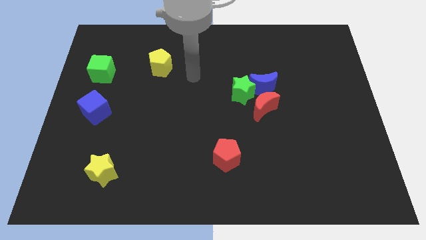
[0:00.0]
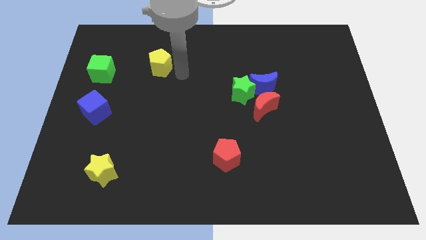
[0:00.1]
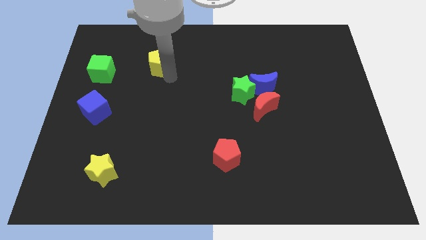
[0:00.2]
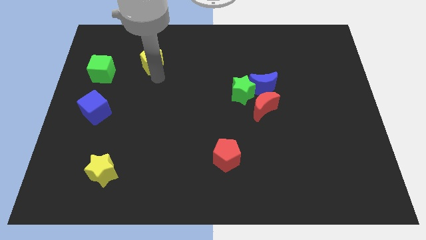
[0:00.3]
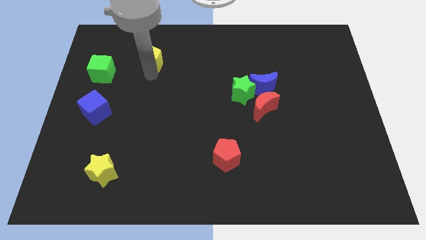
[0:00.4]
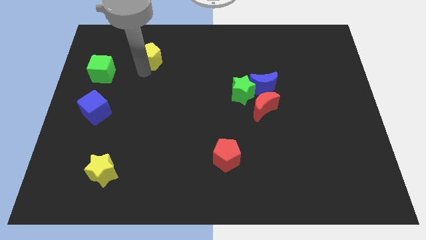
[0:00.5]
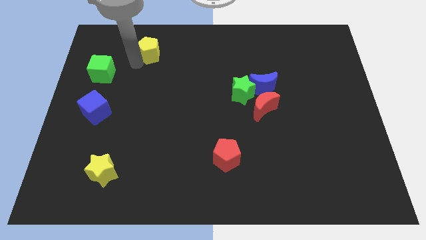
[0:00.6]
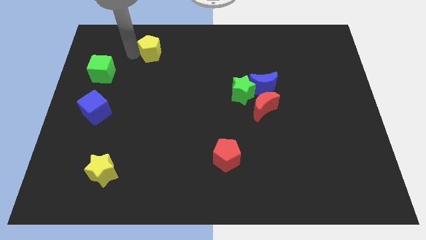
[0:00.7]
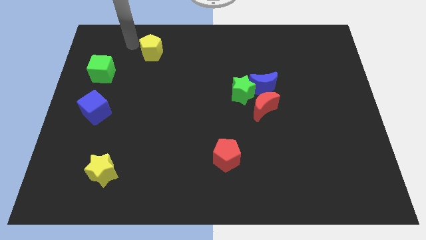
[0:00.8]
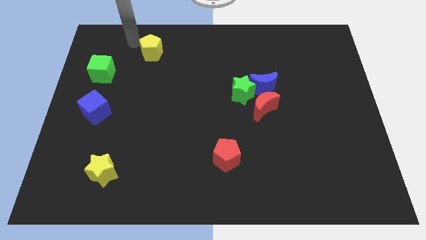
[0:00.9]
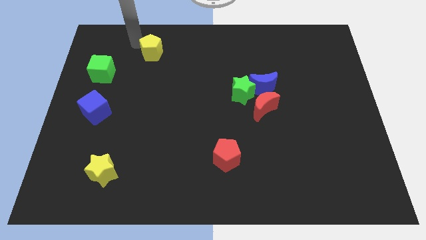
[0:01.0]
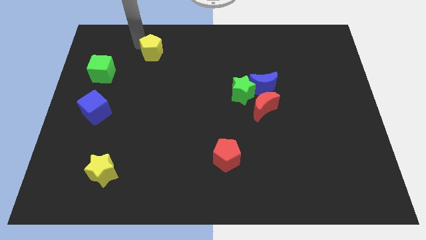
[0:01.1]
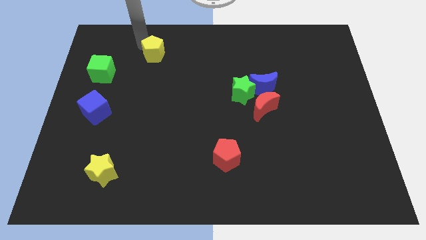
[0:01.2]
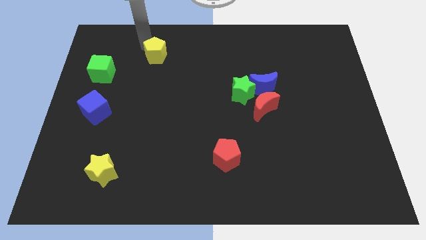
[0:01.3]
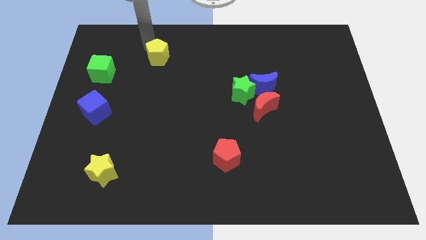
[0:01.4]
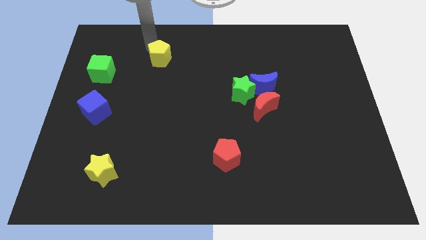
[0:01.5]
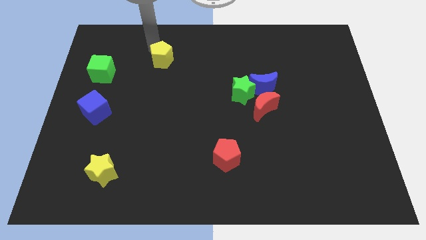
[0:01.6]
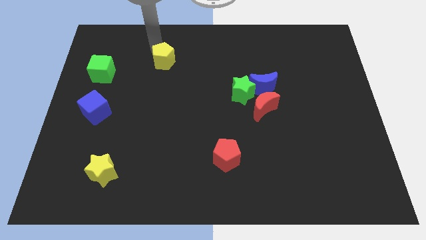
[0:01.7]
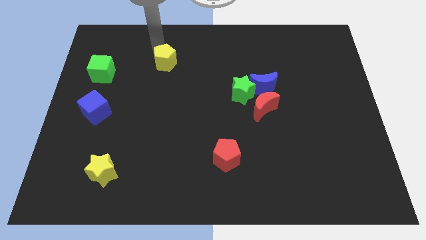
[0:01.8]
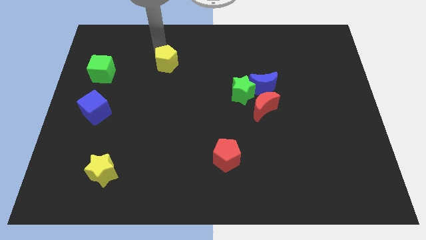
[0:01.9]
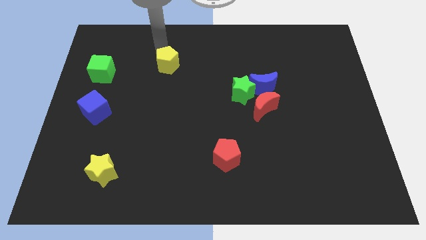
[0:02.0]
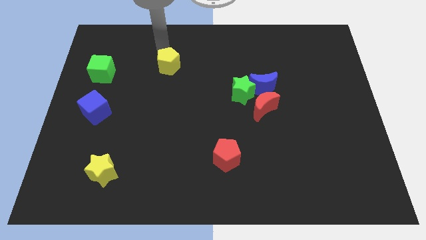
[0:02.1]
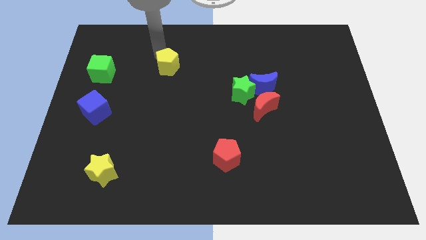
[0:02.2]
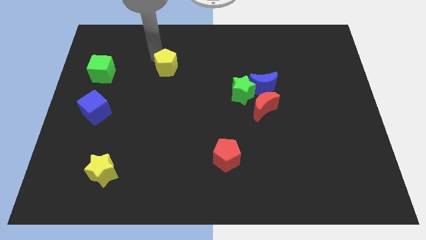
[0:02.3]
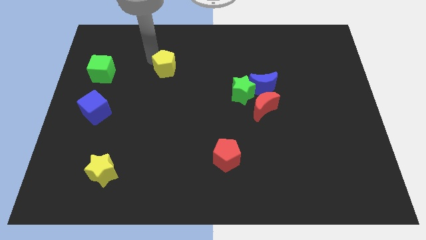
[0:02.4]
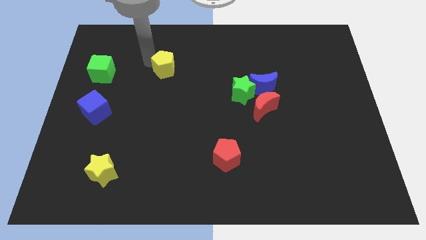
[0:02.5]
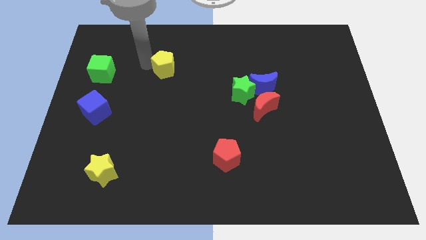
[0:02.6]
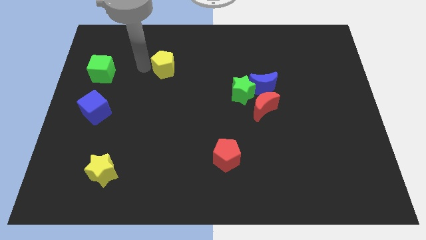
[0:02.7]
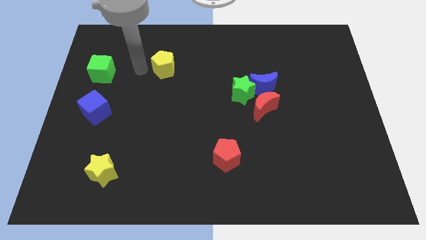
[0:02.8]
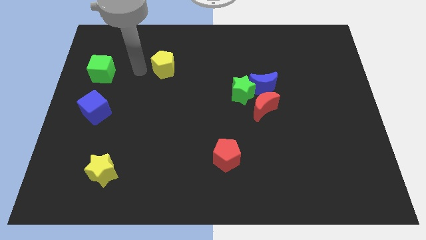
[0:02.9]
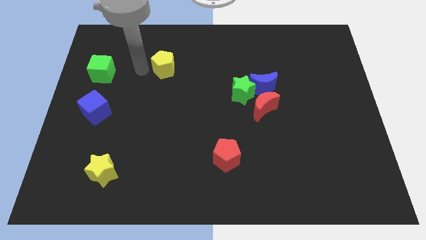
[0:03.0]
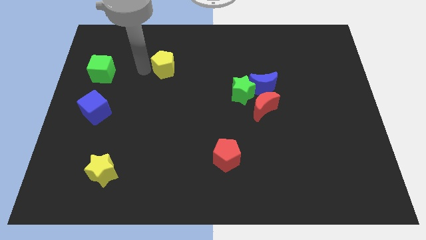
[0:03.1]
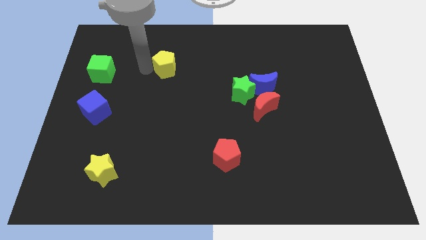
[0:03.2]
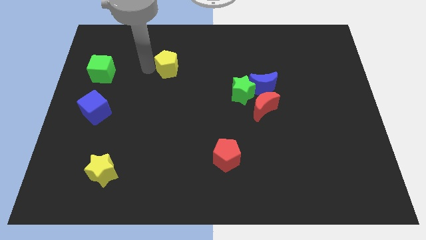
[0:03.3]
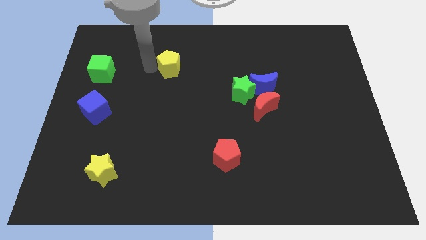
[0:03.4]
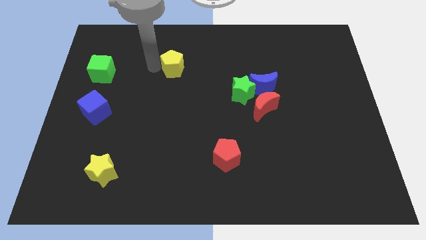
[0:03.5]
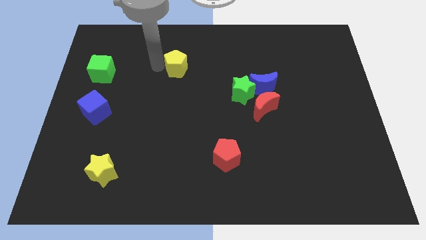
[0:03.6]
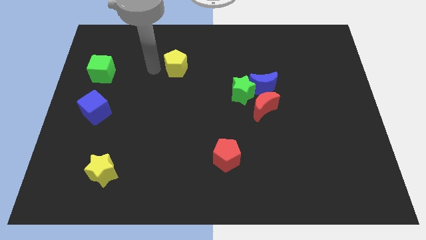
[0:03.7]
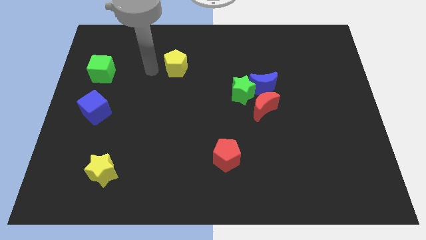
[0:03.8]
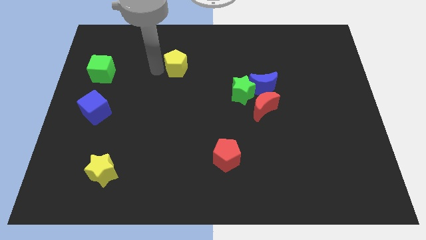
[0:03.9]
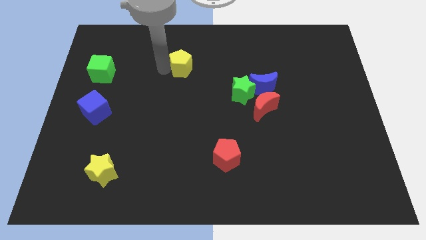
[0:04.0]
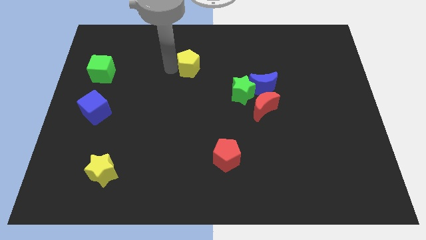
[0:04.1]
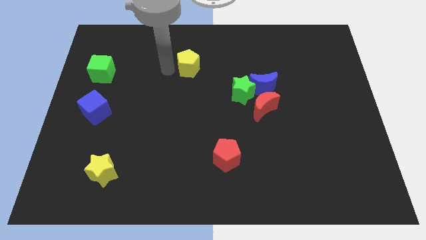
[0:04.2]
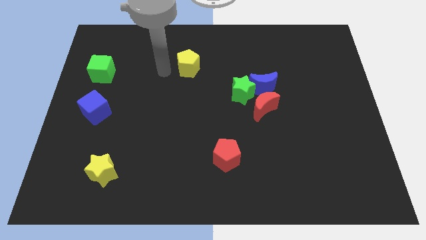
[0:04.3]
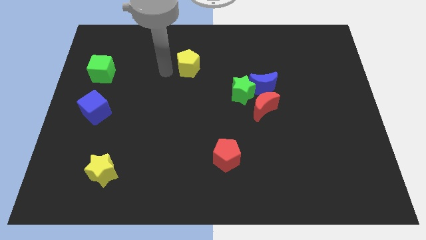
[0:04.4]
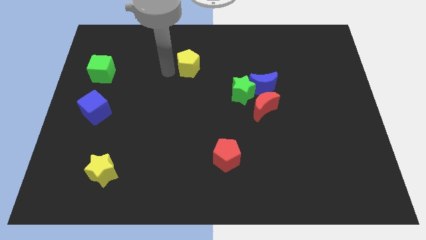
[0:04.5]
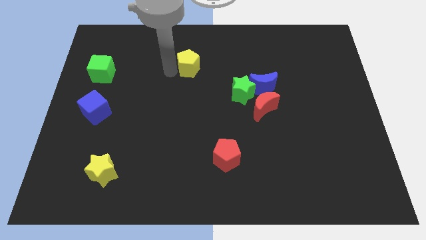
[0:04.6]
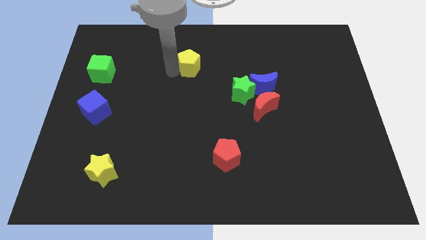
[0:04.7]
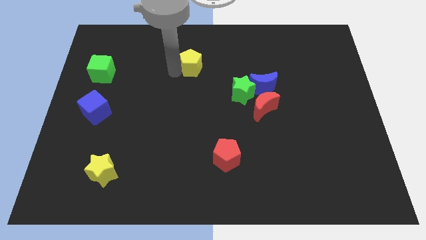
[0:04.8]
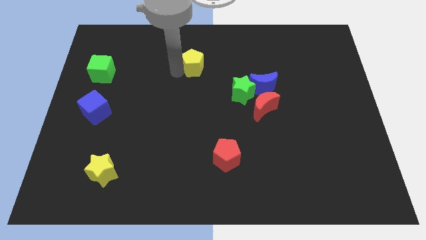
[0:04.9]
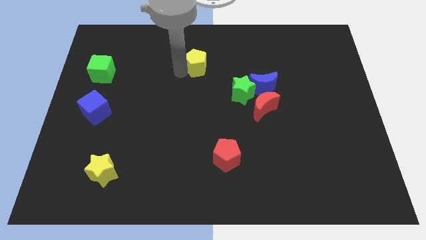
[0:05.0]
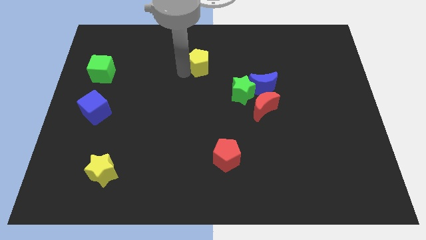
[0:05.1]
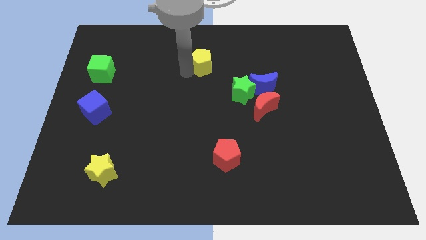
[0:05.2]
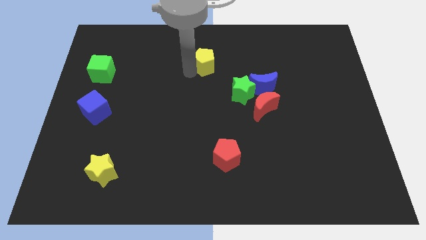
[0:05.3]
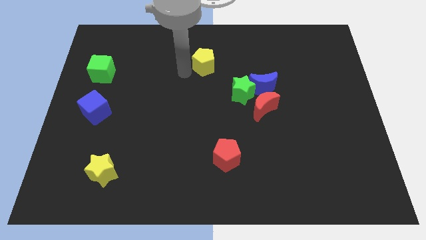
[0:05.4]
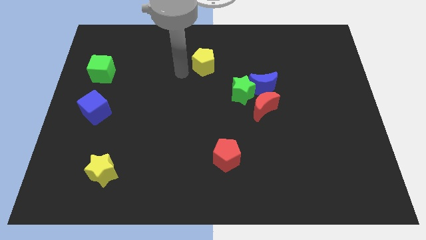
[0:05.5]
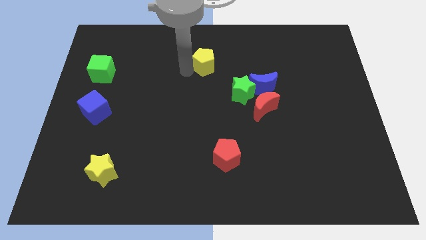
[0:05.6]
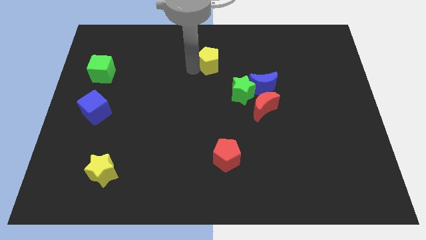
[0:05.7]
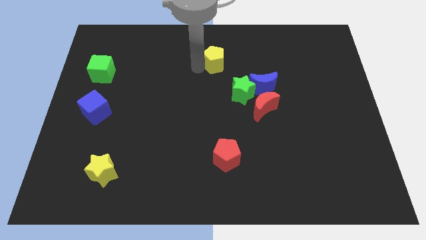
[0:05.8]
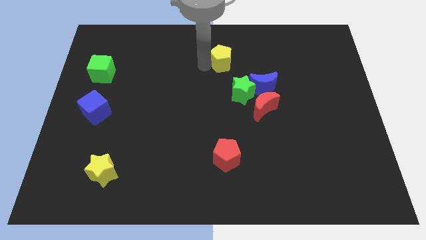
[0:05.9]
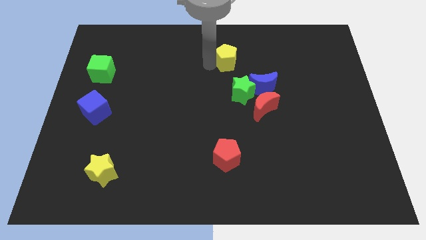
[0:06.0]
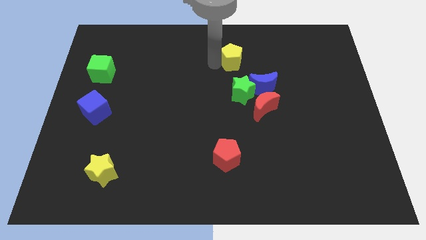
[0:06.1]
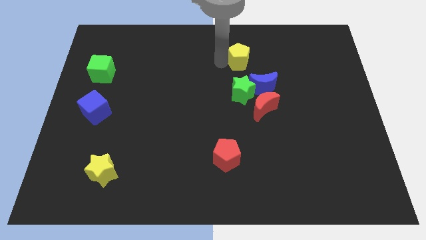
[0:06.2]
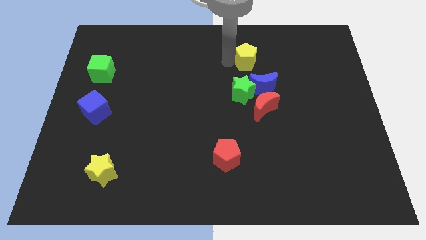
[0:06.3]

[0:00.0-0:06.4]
put the yellow pentagon to the top side of the blue moon

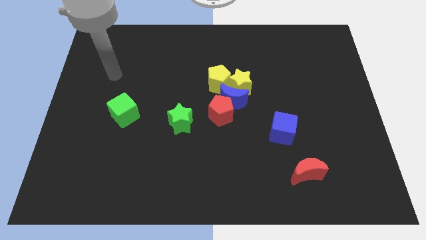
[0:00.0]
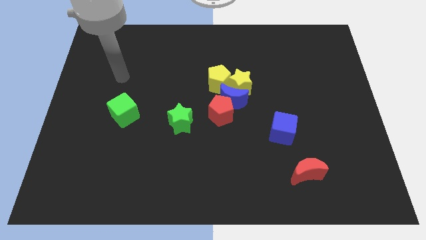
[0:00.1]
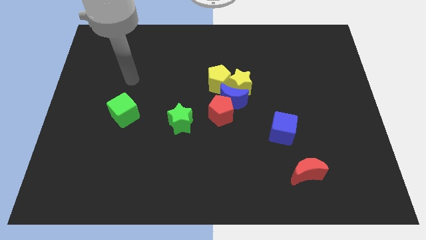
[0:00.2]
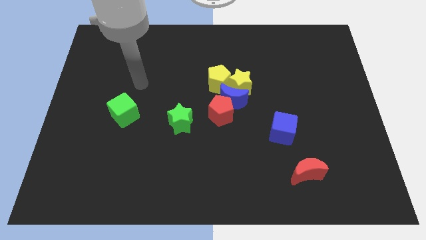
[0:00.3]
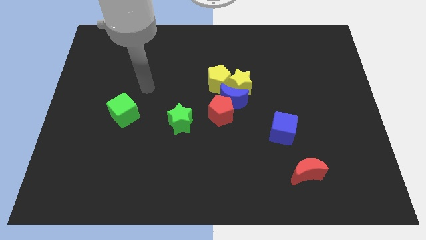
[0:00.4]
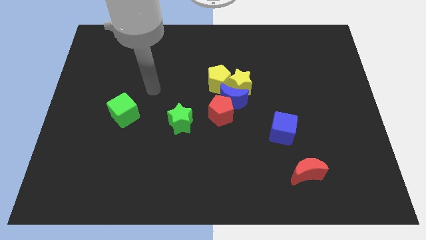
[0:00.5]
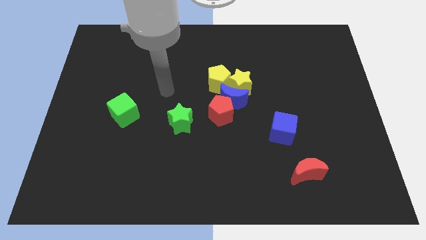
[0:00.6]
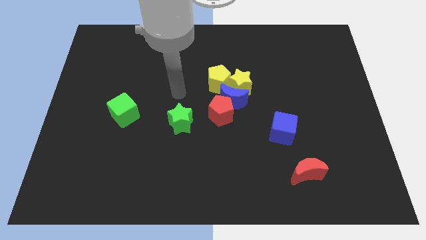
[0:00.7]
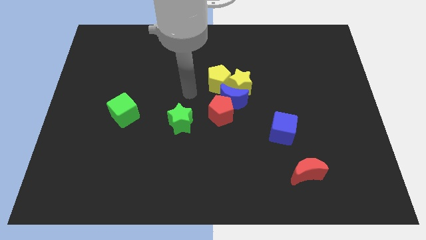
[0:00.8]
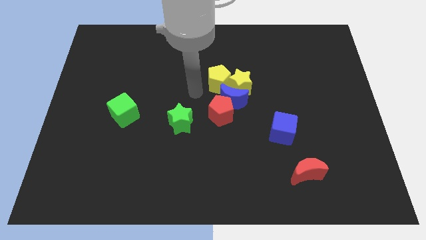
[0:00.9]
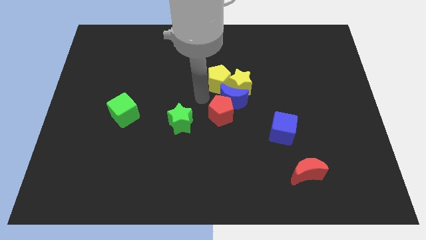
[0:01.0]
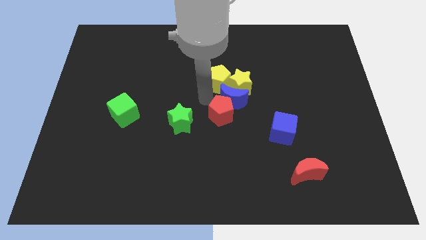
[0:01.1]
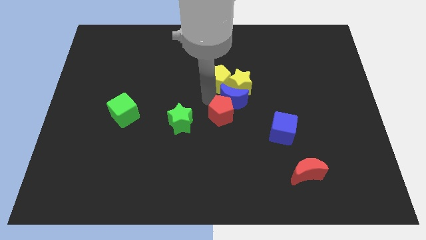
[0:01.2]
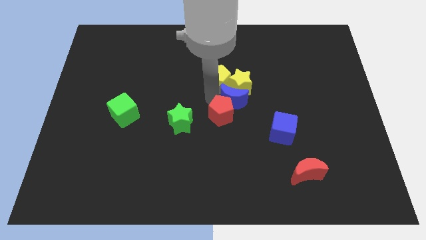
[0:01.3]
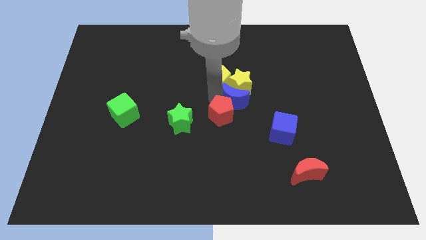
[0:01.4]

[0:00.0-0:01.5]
slide the blue moon to the bottom right of the yellow star
